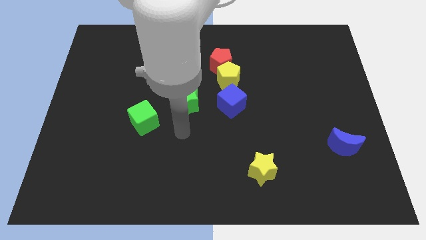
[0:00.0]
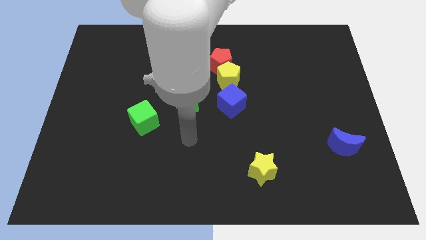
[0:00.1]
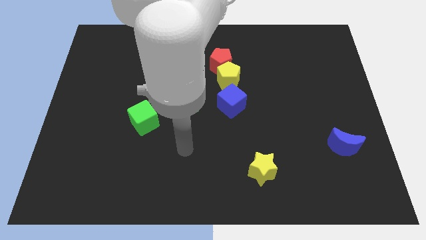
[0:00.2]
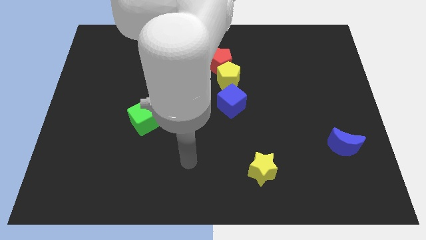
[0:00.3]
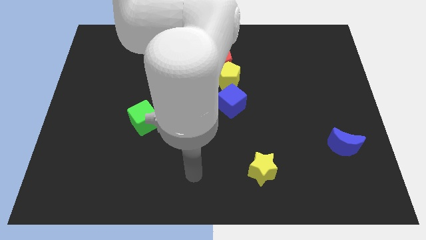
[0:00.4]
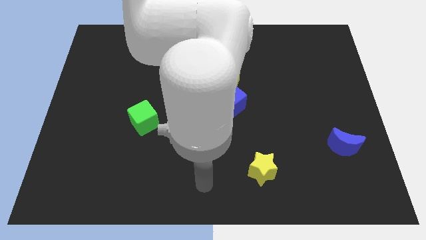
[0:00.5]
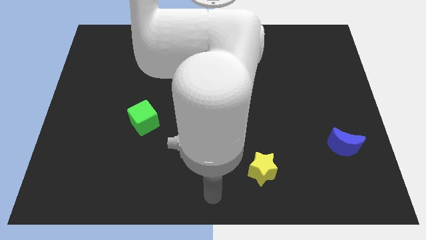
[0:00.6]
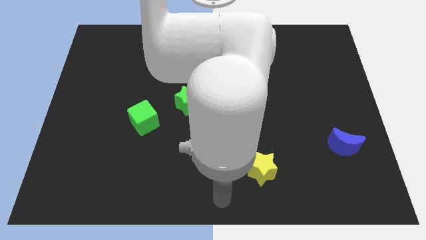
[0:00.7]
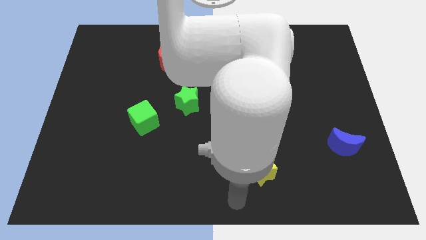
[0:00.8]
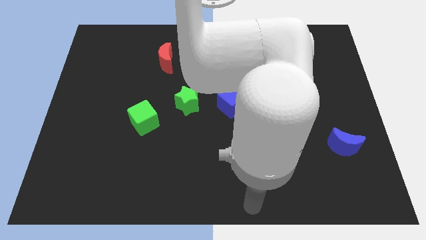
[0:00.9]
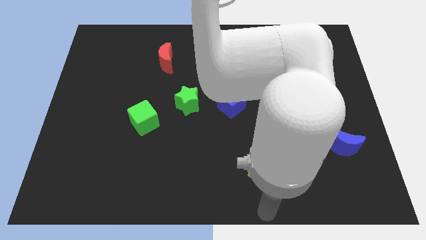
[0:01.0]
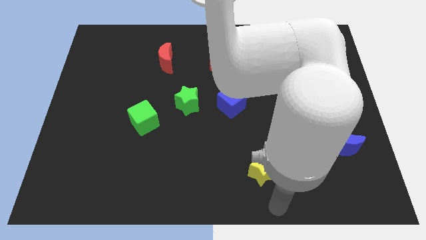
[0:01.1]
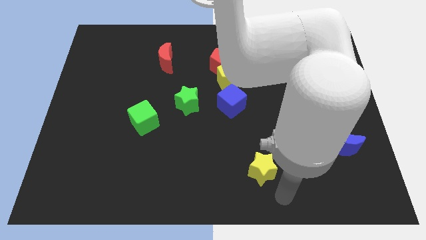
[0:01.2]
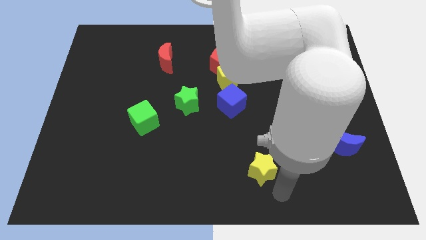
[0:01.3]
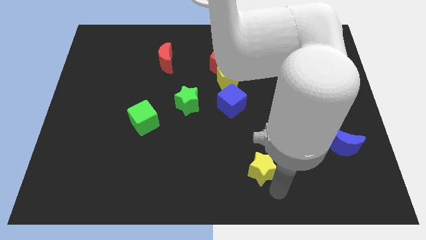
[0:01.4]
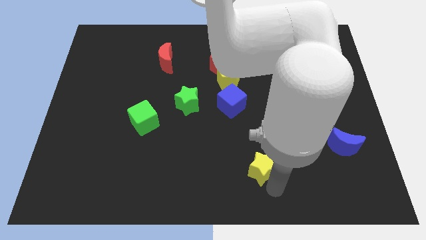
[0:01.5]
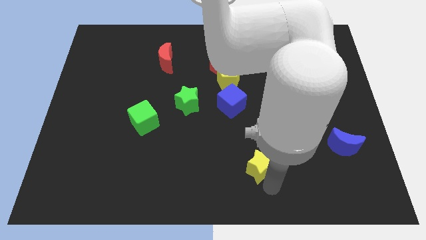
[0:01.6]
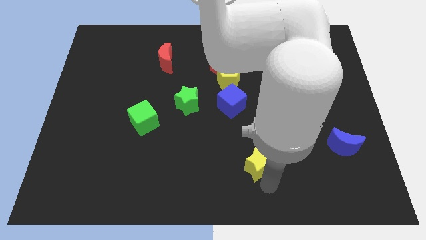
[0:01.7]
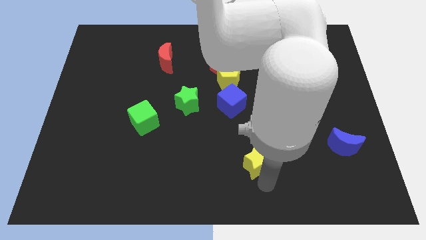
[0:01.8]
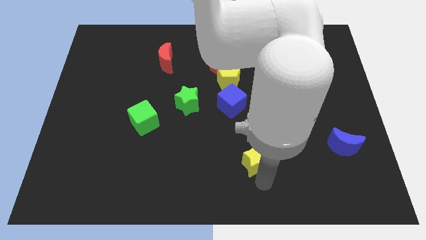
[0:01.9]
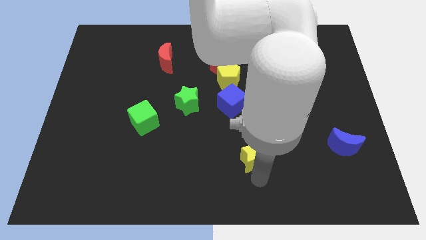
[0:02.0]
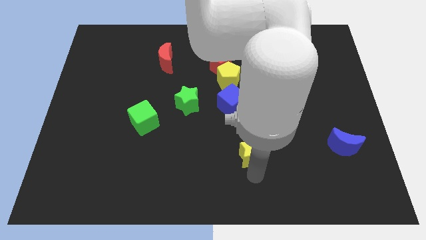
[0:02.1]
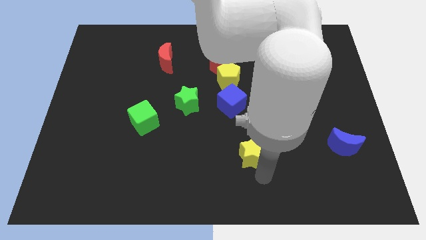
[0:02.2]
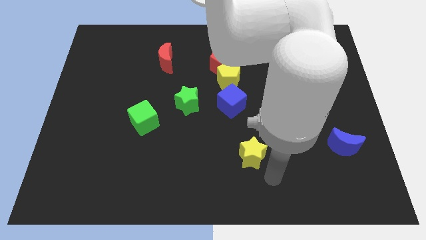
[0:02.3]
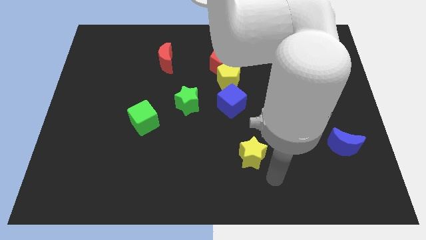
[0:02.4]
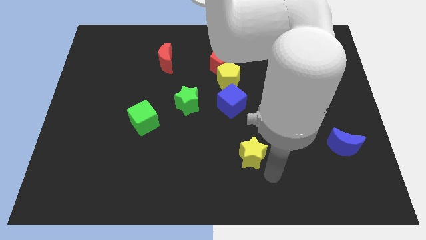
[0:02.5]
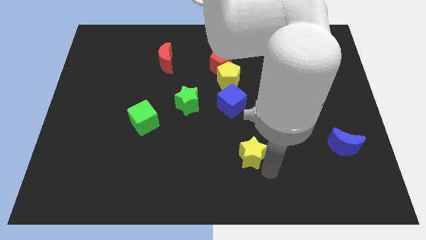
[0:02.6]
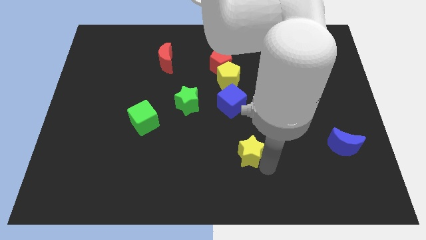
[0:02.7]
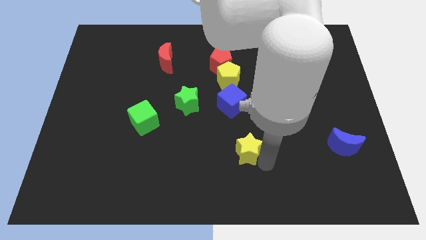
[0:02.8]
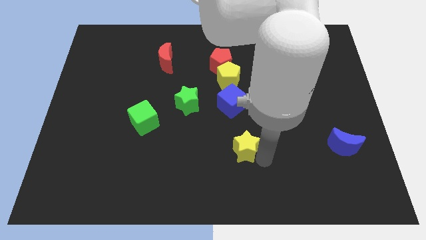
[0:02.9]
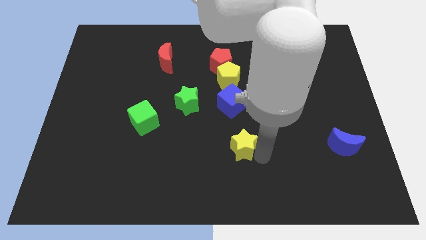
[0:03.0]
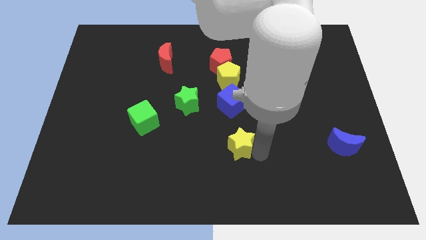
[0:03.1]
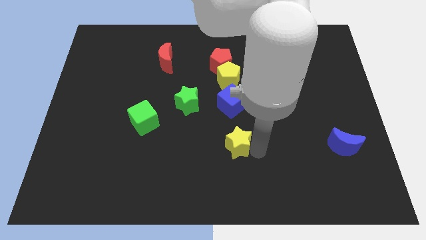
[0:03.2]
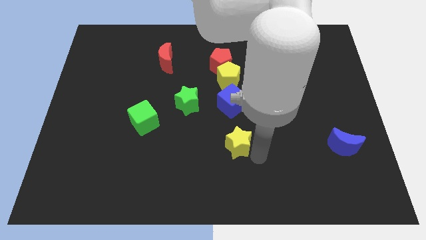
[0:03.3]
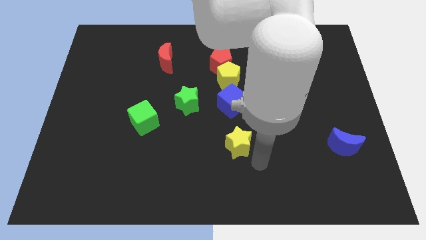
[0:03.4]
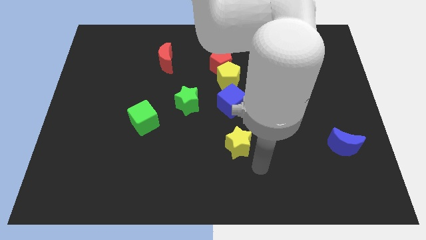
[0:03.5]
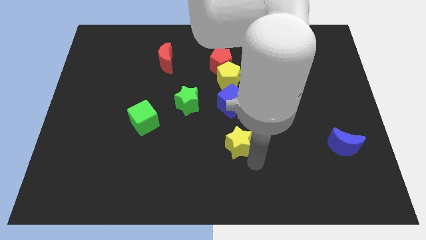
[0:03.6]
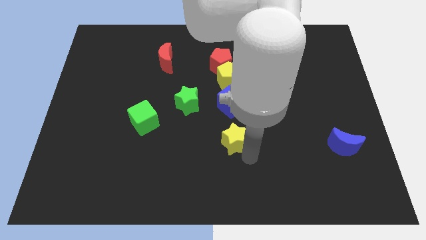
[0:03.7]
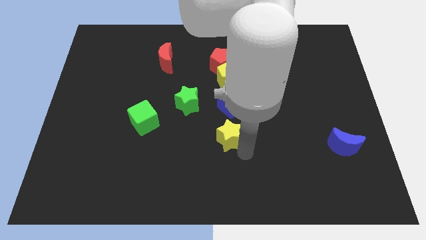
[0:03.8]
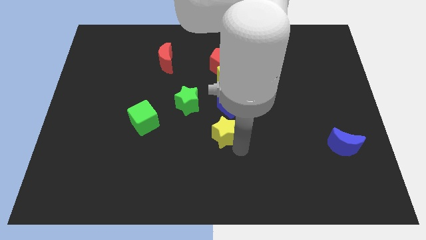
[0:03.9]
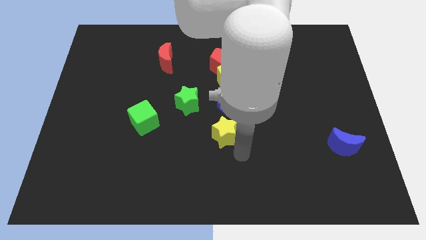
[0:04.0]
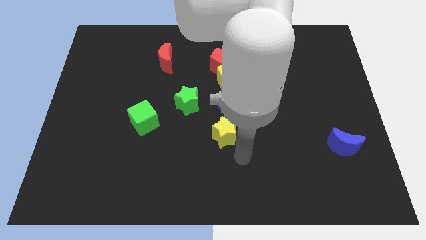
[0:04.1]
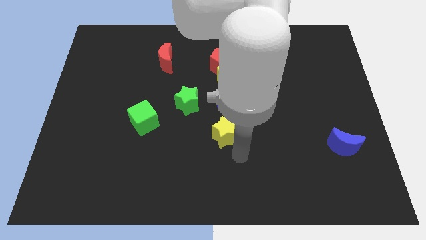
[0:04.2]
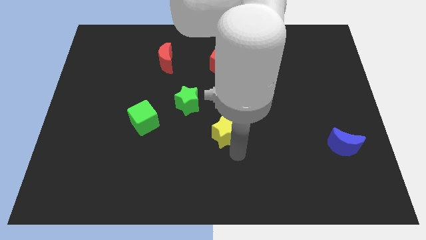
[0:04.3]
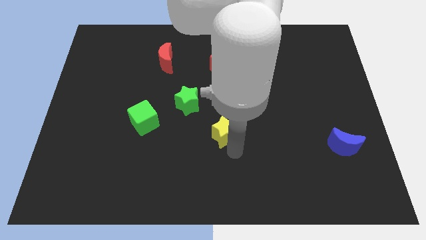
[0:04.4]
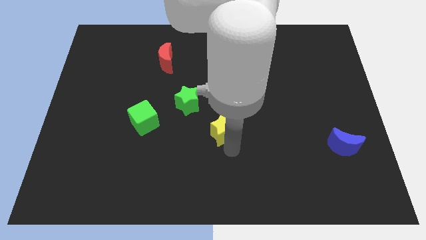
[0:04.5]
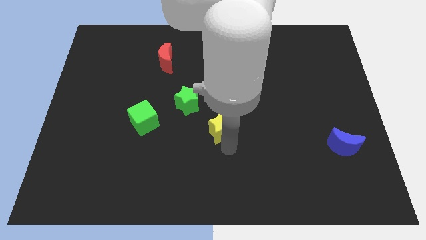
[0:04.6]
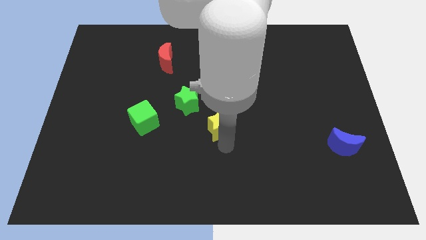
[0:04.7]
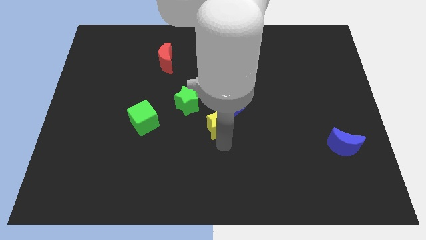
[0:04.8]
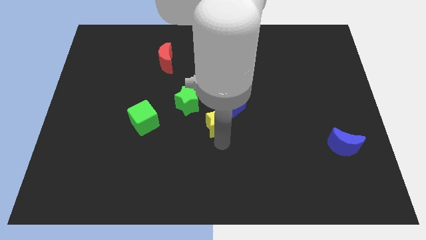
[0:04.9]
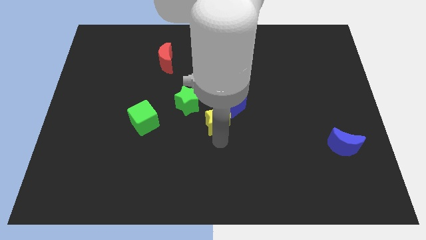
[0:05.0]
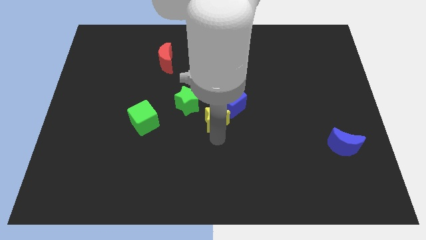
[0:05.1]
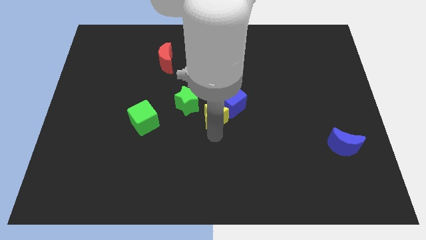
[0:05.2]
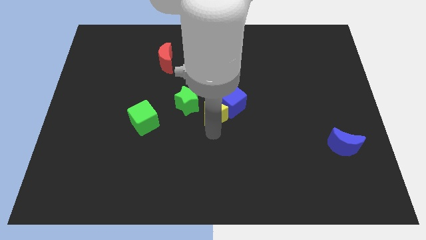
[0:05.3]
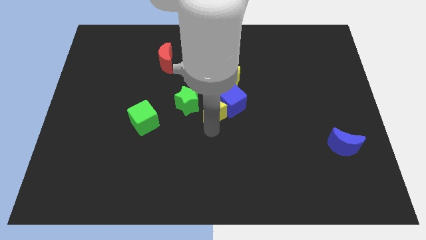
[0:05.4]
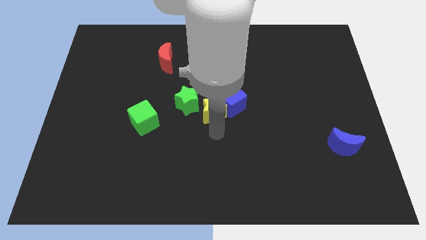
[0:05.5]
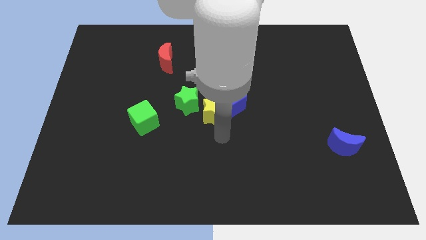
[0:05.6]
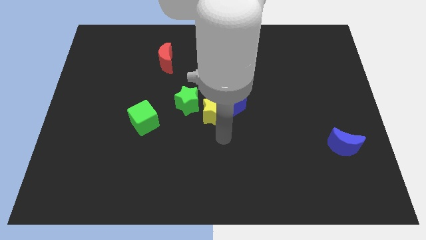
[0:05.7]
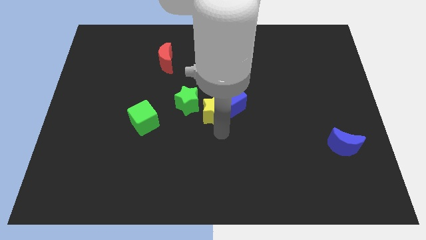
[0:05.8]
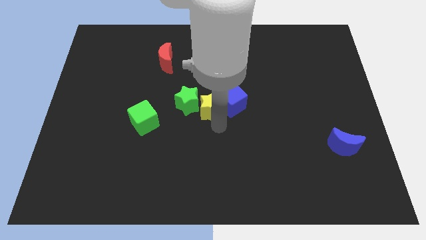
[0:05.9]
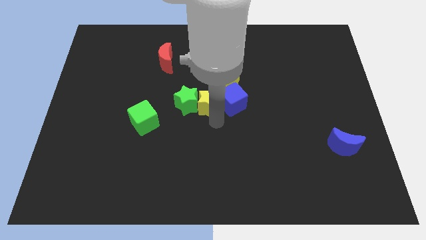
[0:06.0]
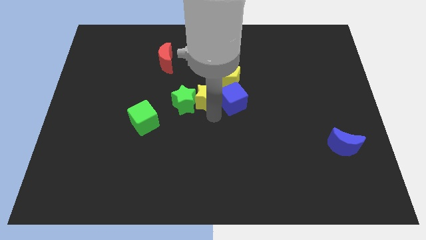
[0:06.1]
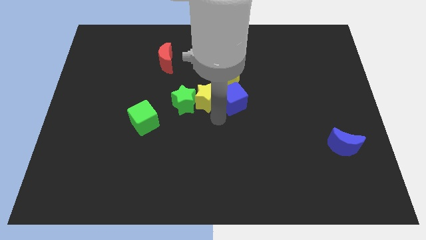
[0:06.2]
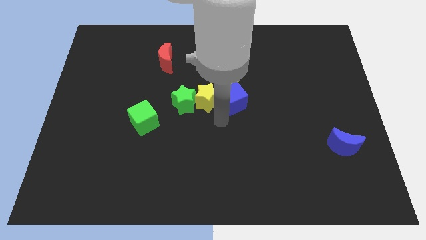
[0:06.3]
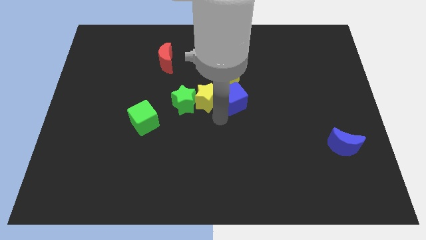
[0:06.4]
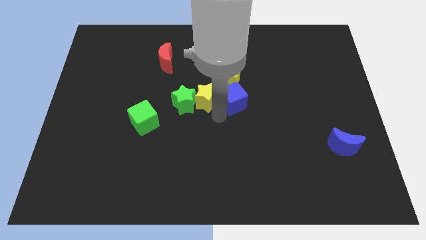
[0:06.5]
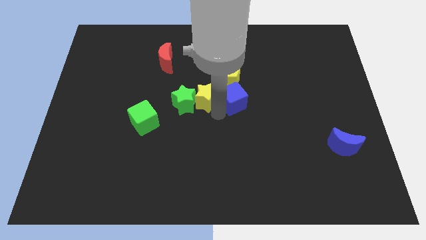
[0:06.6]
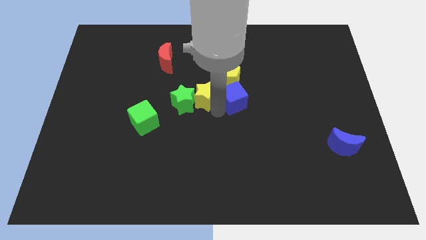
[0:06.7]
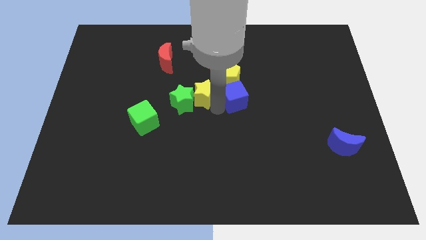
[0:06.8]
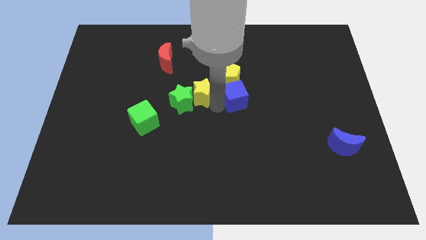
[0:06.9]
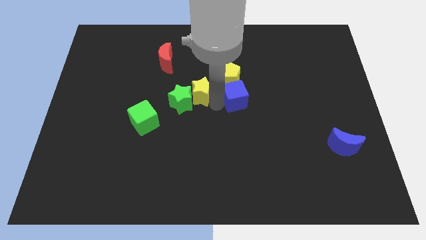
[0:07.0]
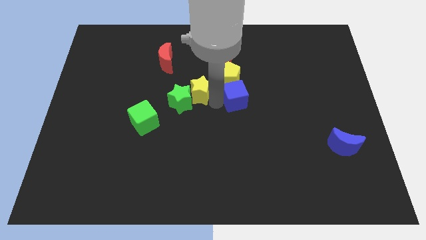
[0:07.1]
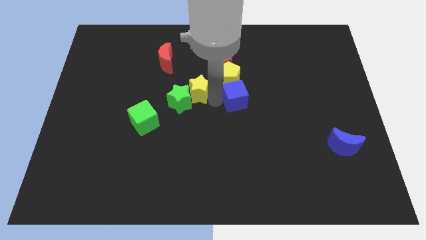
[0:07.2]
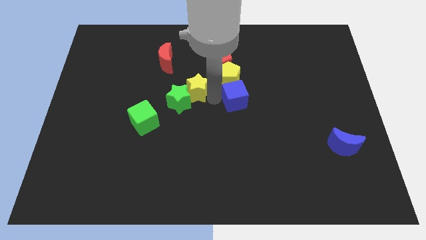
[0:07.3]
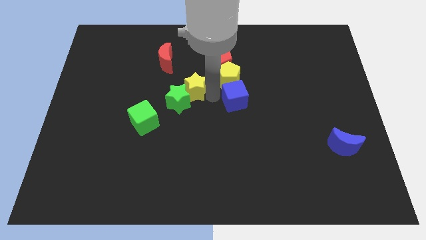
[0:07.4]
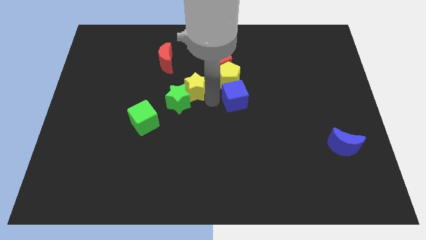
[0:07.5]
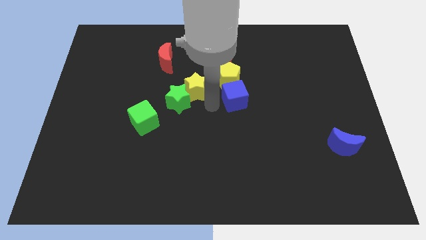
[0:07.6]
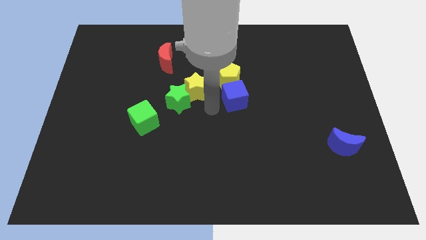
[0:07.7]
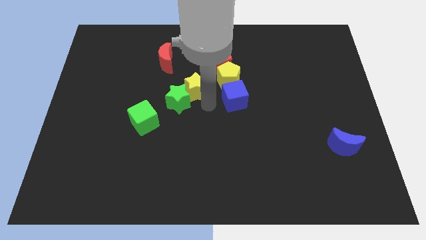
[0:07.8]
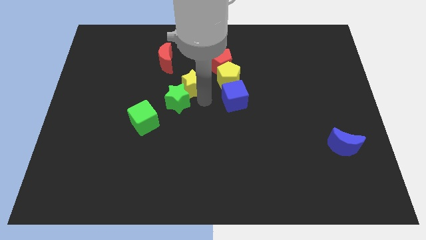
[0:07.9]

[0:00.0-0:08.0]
move the yellow star to the bottom right of the red moon

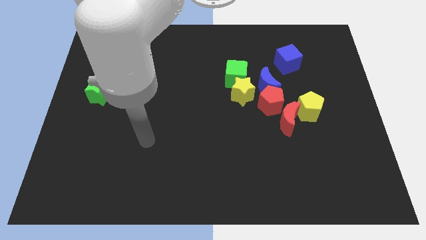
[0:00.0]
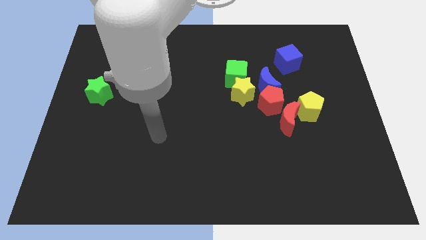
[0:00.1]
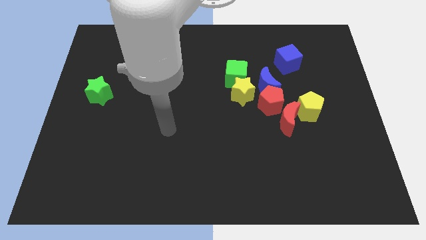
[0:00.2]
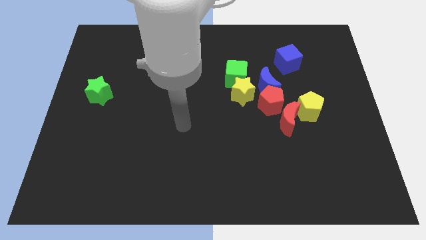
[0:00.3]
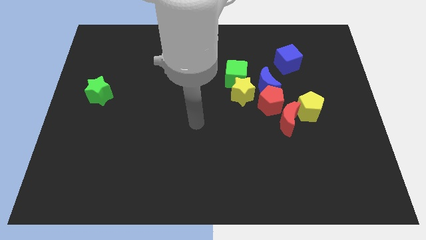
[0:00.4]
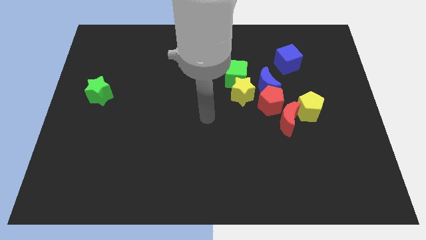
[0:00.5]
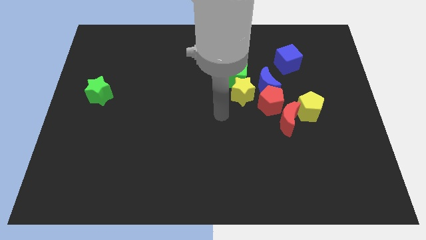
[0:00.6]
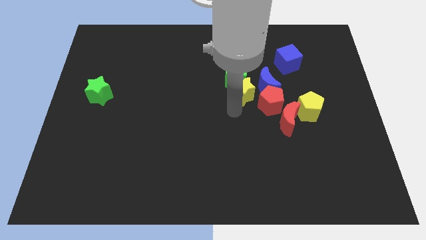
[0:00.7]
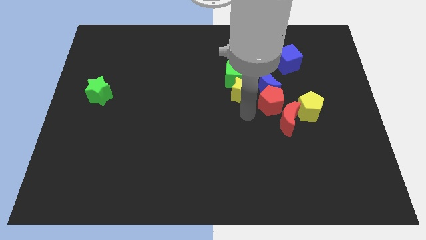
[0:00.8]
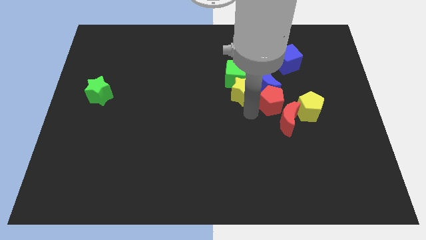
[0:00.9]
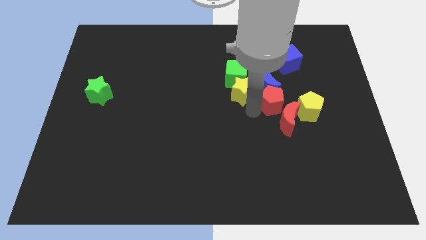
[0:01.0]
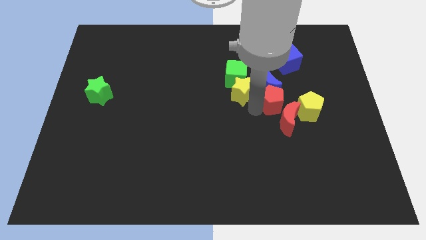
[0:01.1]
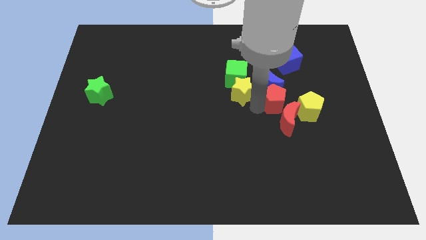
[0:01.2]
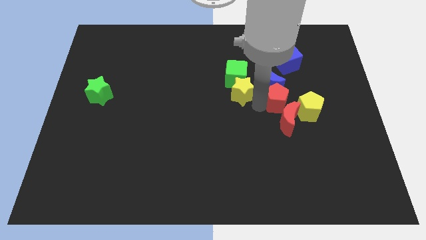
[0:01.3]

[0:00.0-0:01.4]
move the red pentagon to the bottom side of the blue cube
